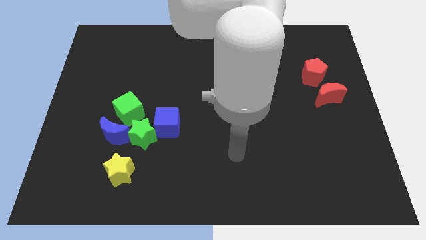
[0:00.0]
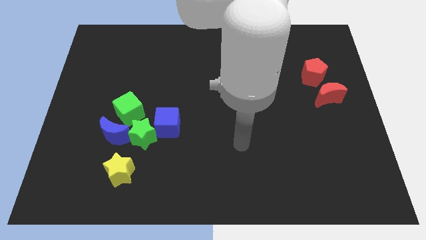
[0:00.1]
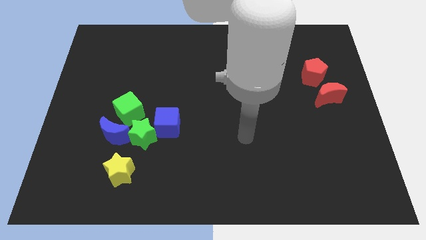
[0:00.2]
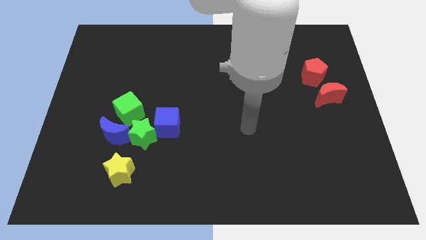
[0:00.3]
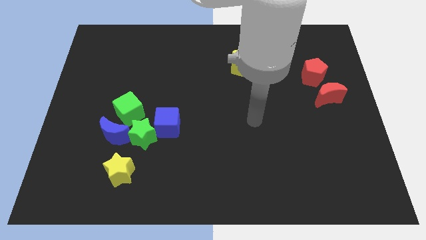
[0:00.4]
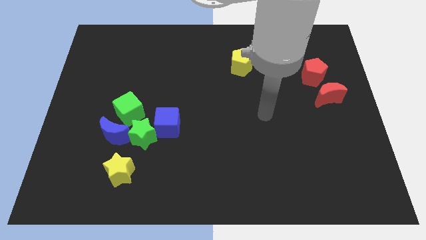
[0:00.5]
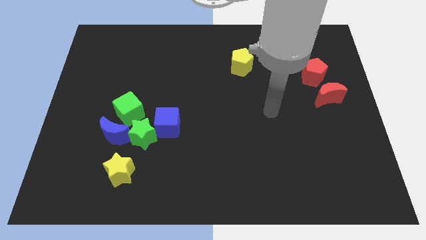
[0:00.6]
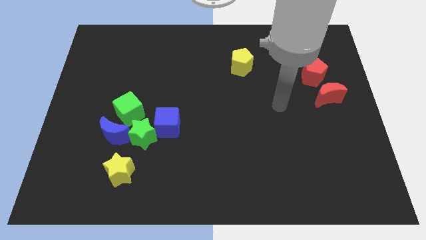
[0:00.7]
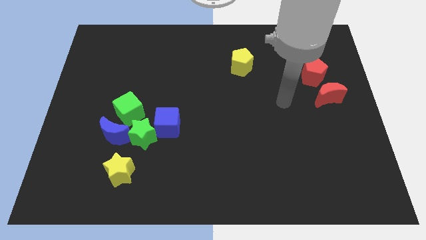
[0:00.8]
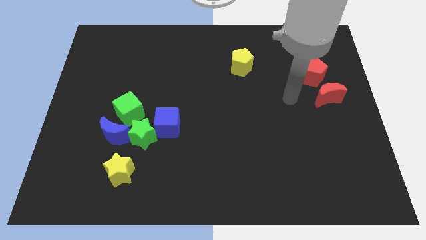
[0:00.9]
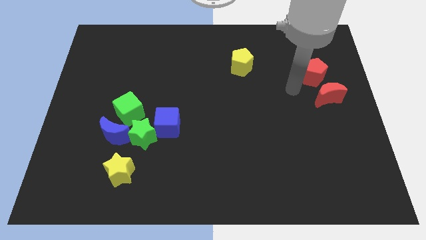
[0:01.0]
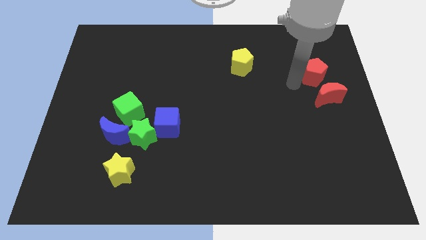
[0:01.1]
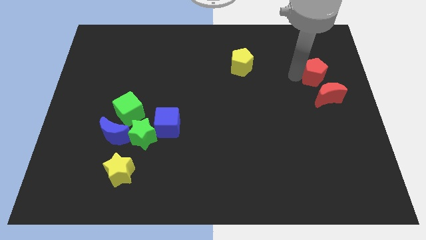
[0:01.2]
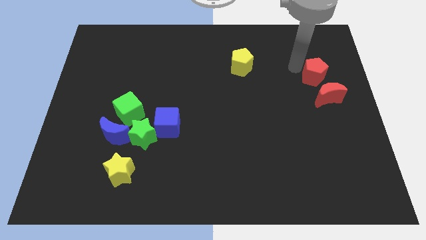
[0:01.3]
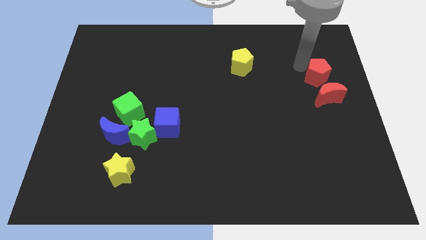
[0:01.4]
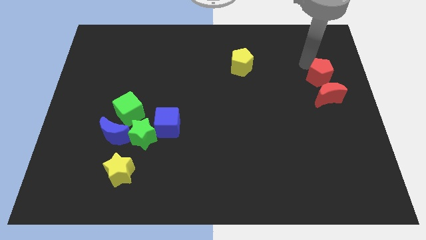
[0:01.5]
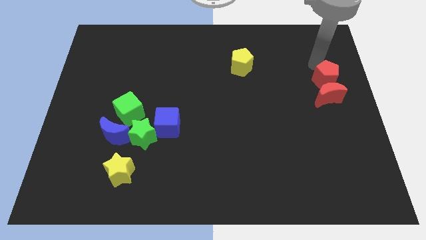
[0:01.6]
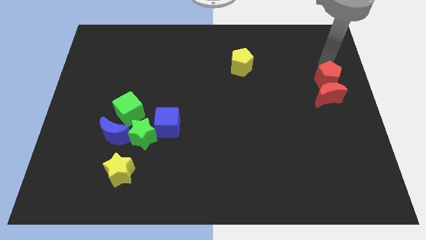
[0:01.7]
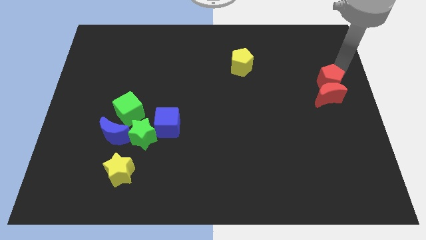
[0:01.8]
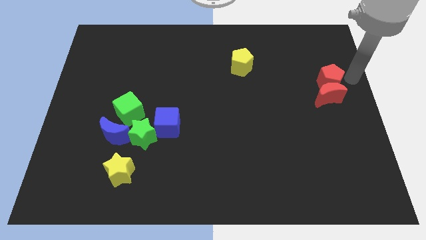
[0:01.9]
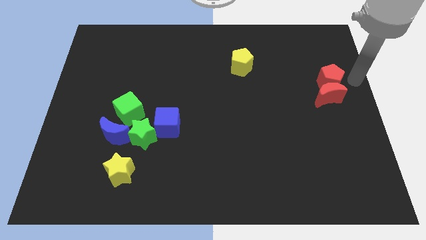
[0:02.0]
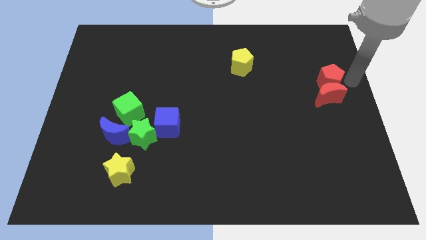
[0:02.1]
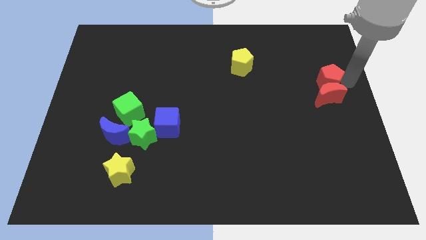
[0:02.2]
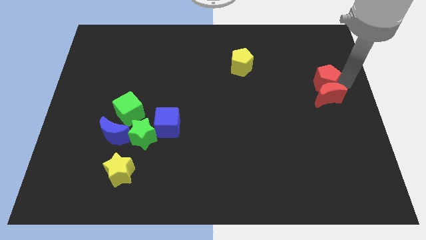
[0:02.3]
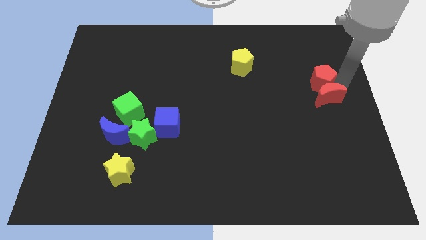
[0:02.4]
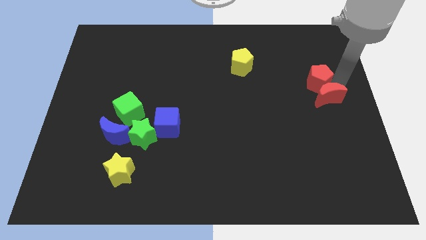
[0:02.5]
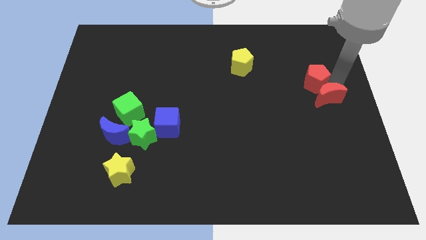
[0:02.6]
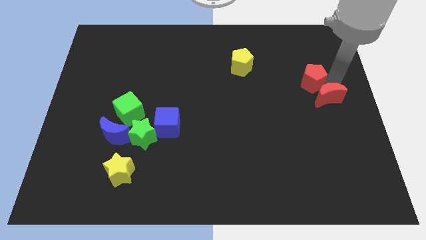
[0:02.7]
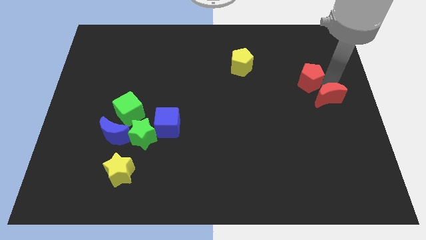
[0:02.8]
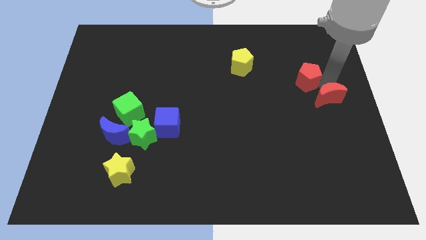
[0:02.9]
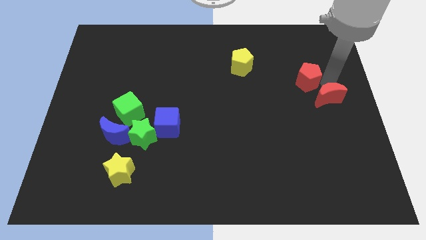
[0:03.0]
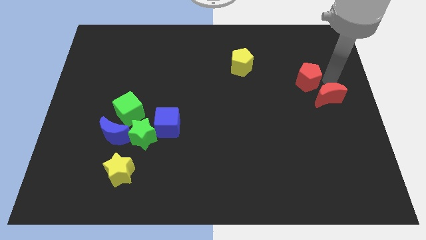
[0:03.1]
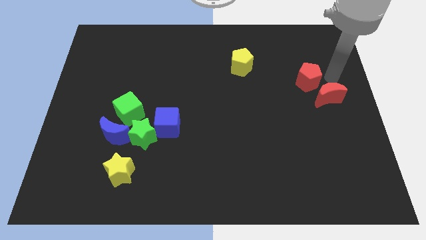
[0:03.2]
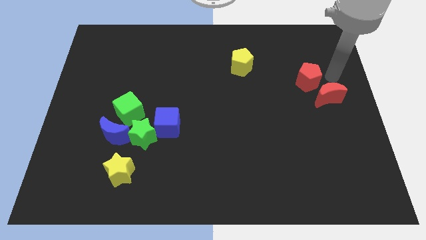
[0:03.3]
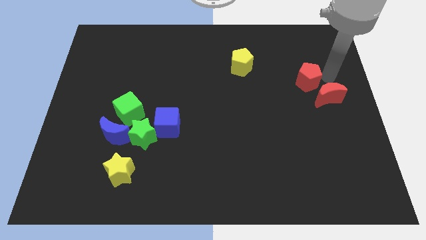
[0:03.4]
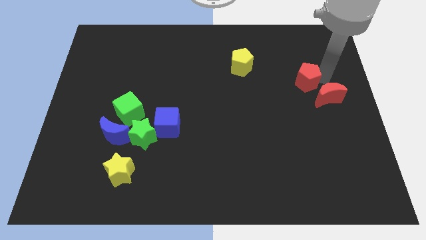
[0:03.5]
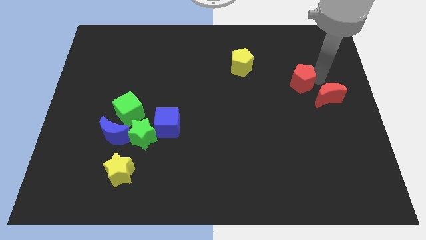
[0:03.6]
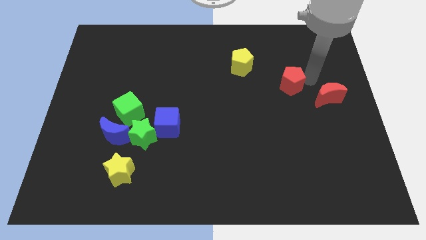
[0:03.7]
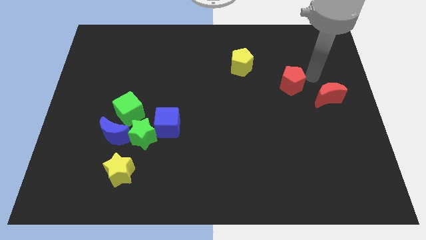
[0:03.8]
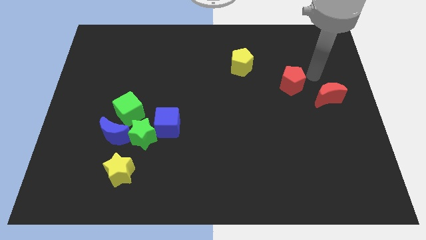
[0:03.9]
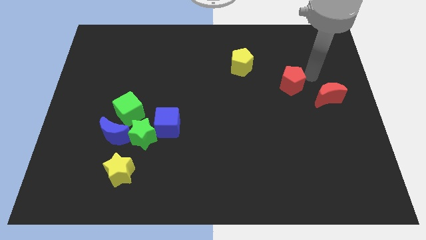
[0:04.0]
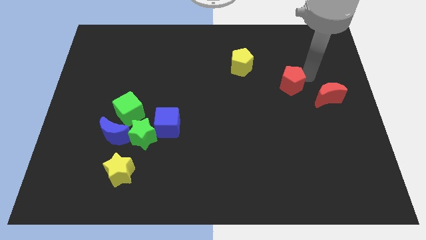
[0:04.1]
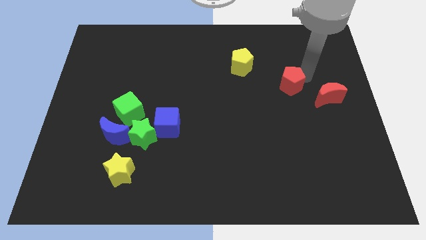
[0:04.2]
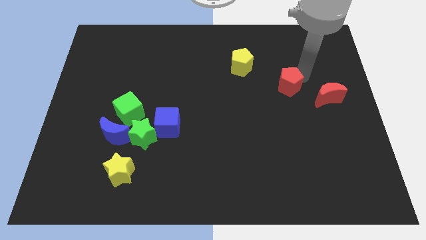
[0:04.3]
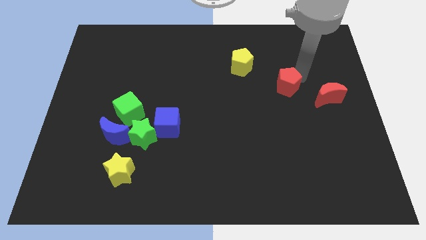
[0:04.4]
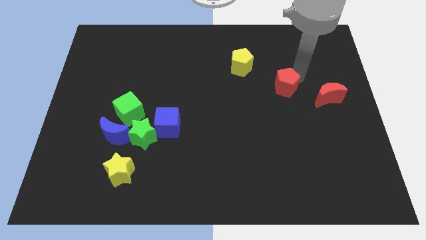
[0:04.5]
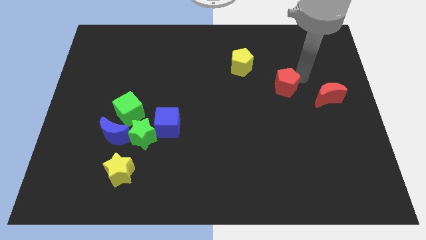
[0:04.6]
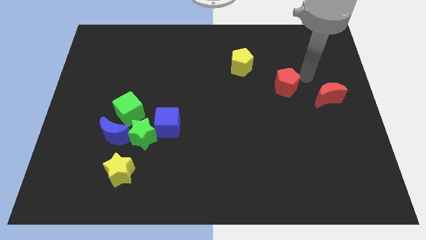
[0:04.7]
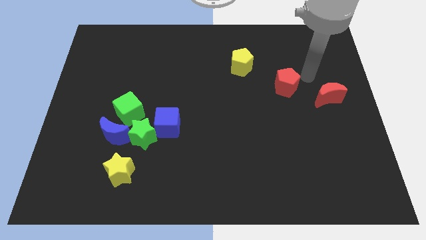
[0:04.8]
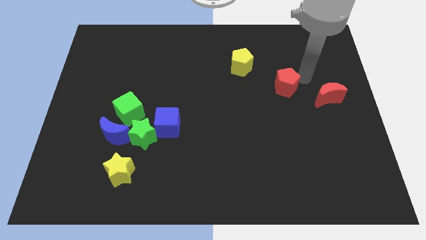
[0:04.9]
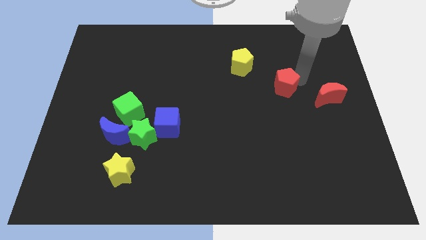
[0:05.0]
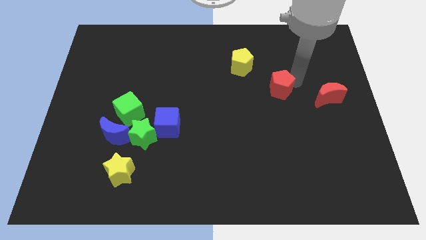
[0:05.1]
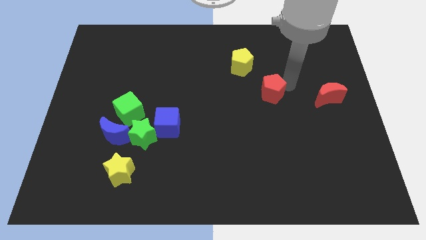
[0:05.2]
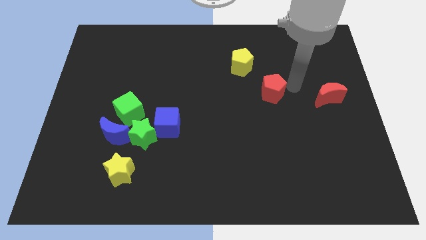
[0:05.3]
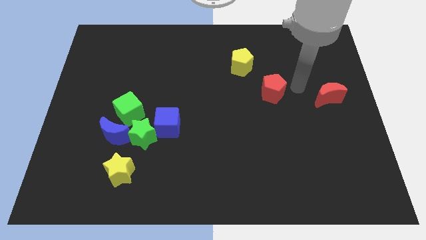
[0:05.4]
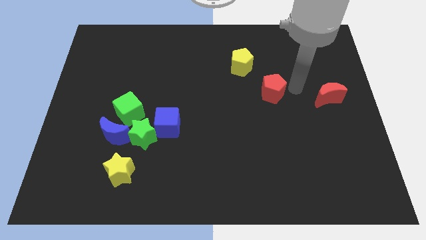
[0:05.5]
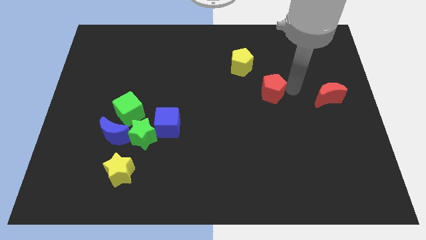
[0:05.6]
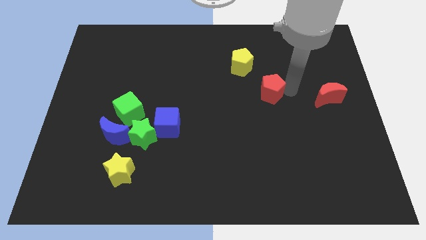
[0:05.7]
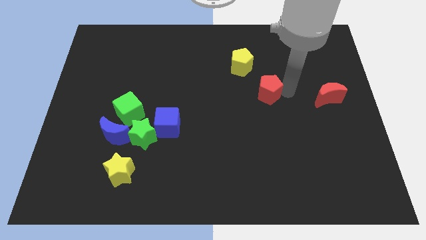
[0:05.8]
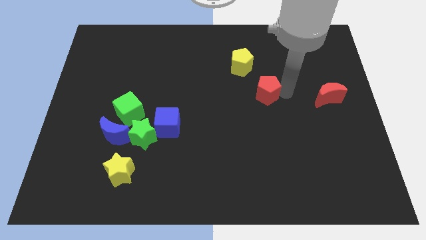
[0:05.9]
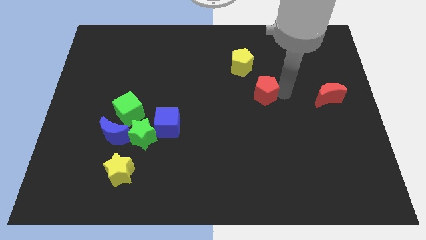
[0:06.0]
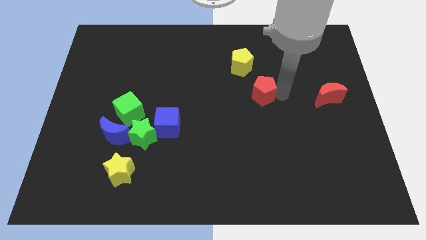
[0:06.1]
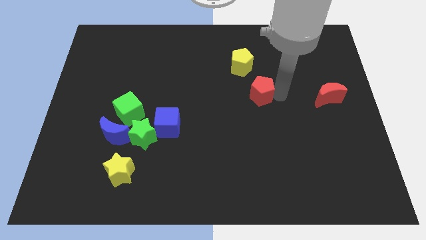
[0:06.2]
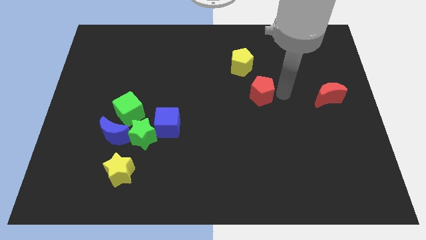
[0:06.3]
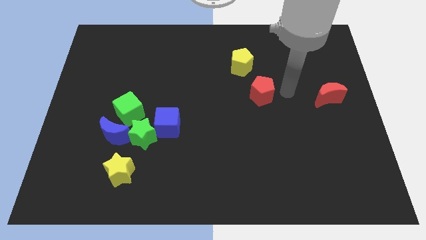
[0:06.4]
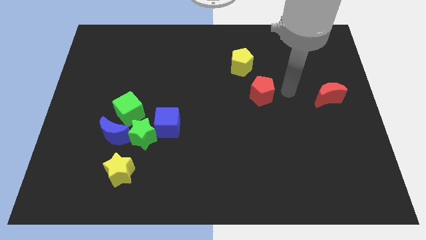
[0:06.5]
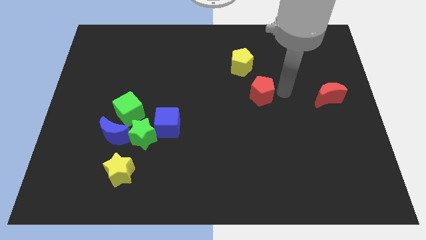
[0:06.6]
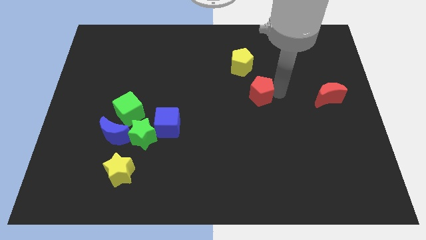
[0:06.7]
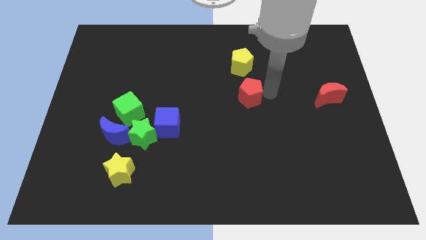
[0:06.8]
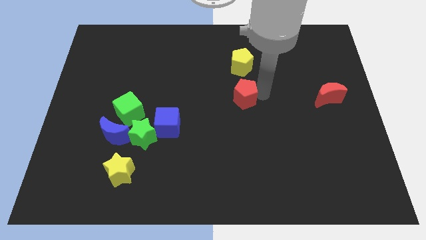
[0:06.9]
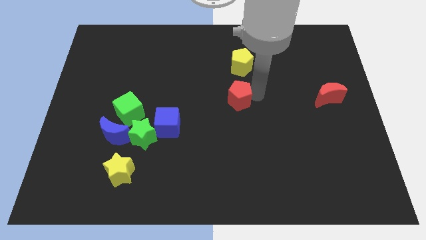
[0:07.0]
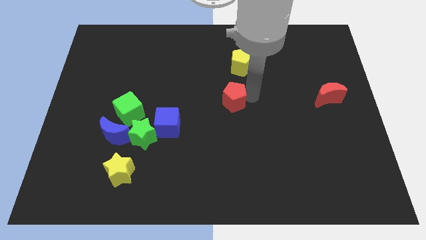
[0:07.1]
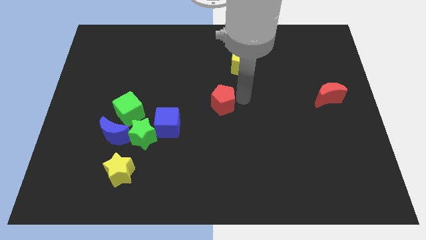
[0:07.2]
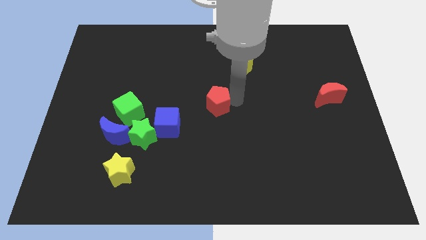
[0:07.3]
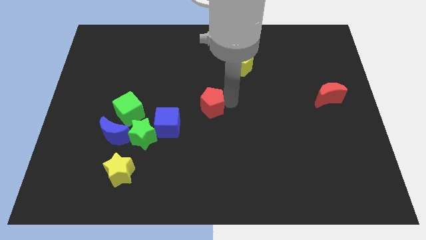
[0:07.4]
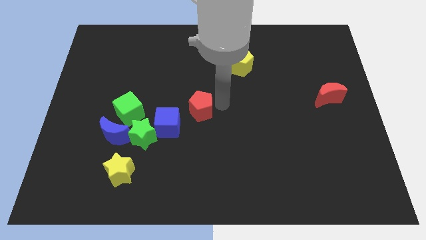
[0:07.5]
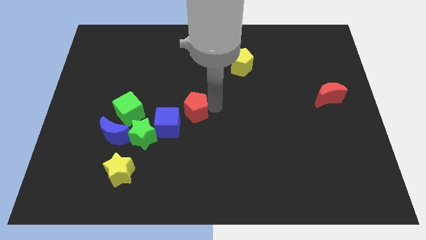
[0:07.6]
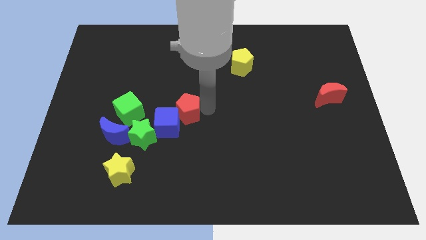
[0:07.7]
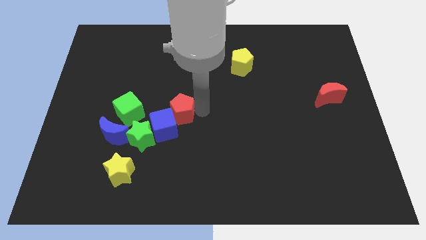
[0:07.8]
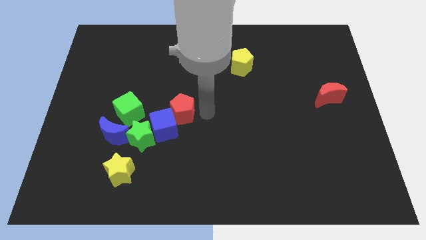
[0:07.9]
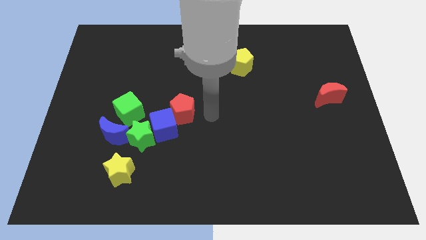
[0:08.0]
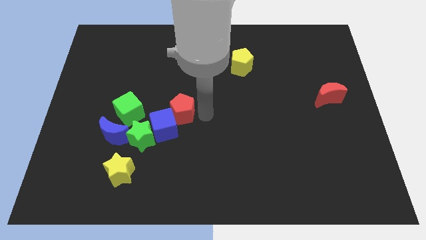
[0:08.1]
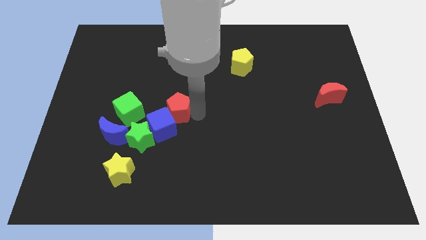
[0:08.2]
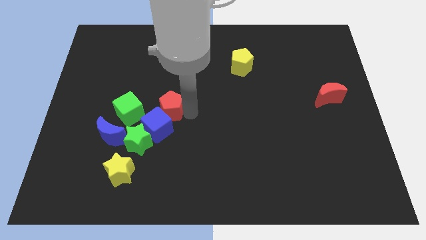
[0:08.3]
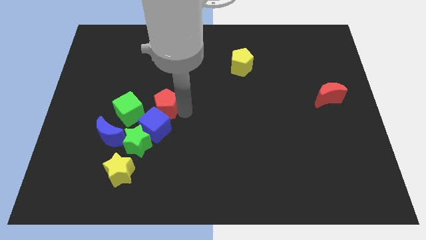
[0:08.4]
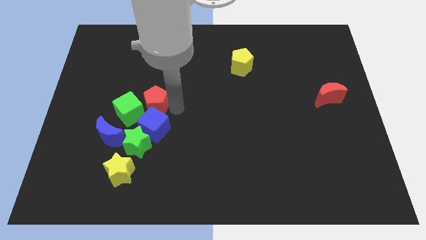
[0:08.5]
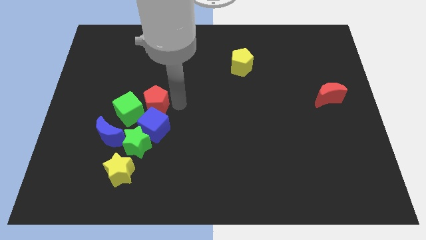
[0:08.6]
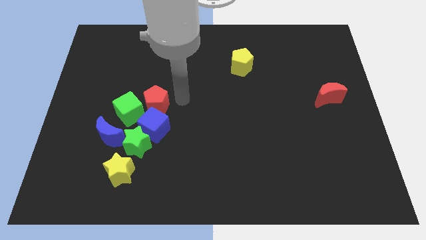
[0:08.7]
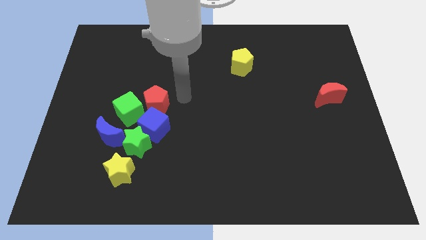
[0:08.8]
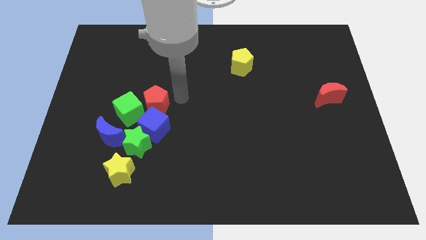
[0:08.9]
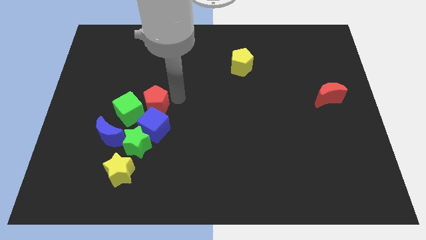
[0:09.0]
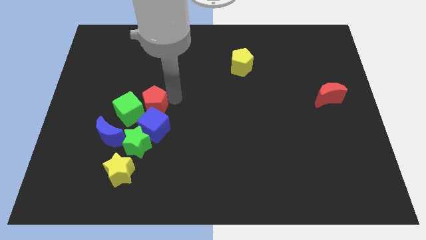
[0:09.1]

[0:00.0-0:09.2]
move the red pentagon towards the green cube
